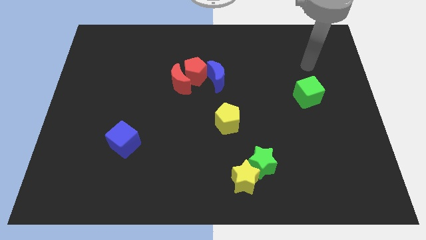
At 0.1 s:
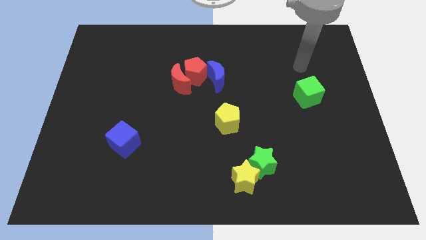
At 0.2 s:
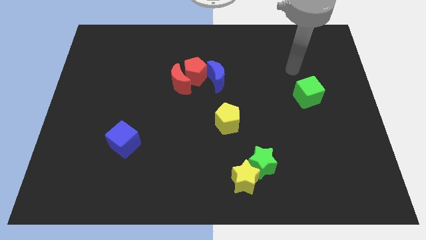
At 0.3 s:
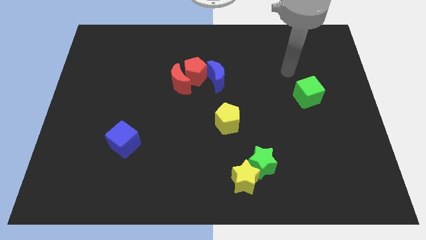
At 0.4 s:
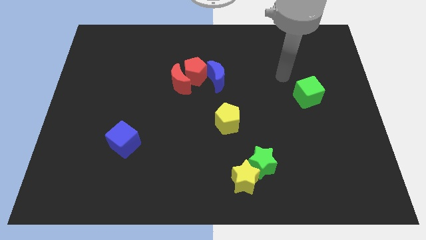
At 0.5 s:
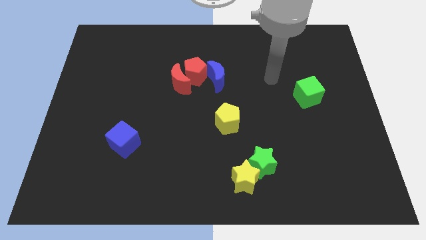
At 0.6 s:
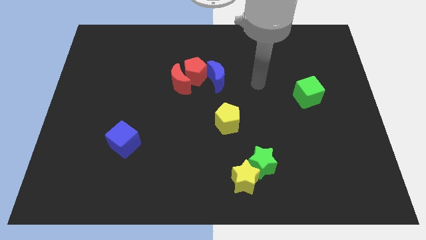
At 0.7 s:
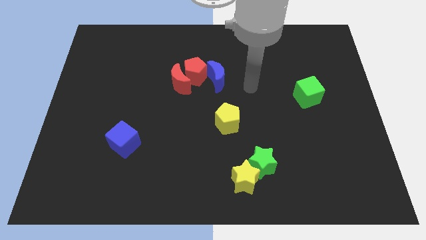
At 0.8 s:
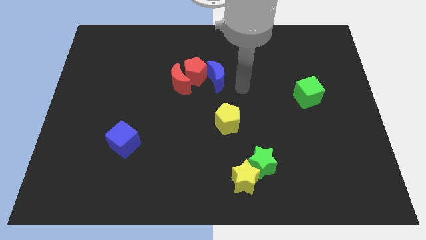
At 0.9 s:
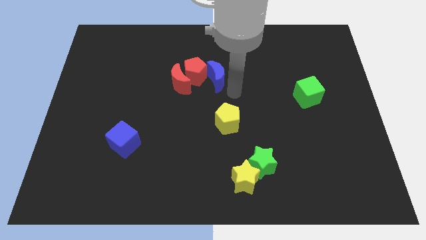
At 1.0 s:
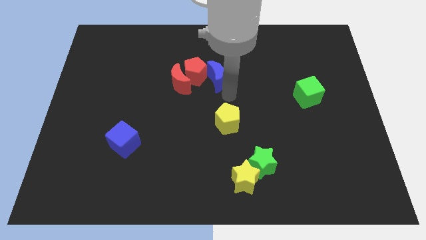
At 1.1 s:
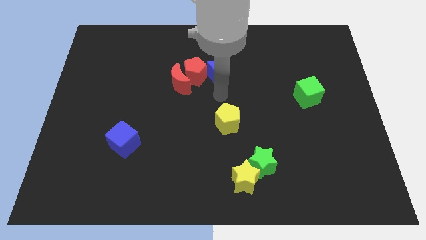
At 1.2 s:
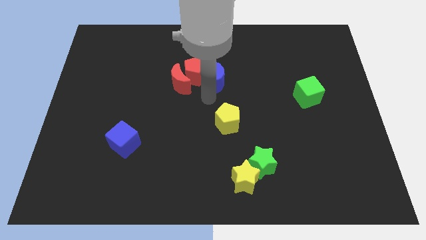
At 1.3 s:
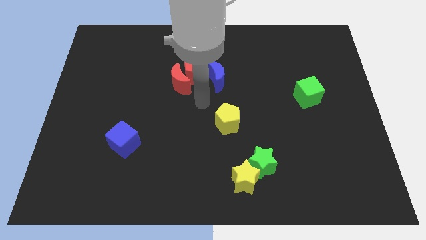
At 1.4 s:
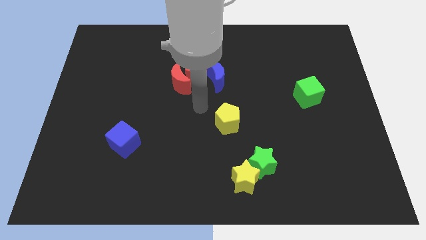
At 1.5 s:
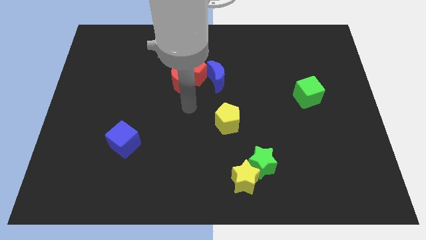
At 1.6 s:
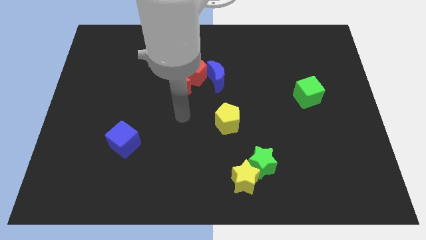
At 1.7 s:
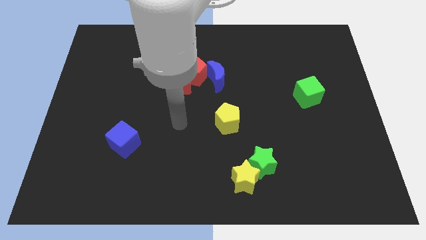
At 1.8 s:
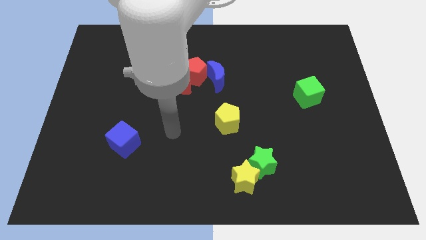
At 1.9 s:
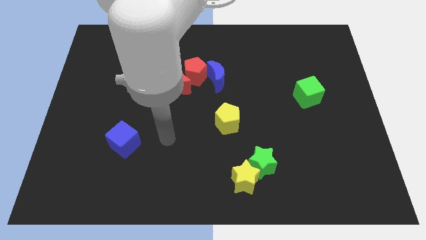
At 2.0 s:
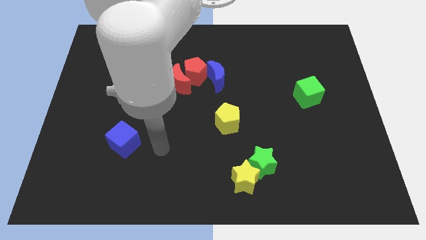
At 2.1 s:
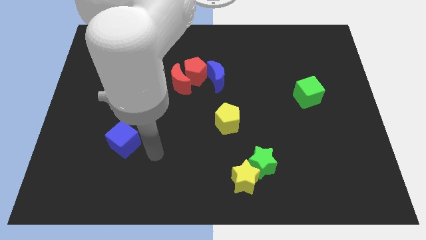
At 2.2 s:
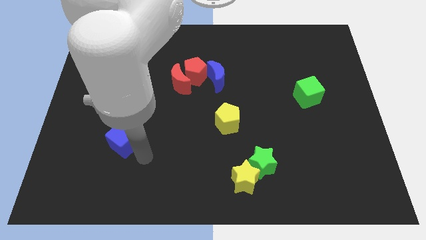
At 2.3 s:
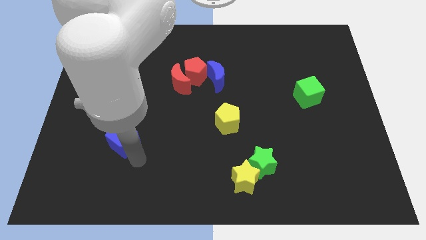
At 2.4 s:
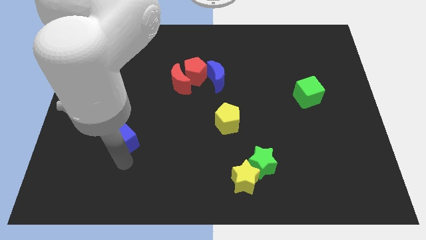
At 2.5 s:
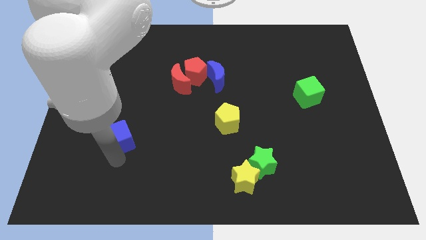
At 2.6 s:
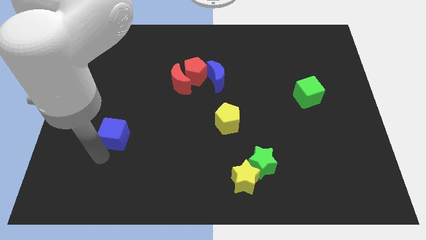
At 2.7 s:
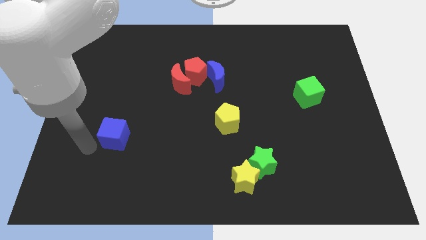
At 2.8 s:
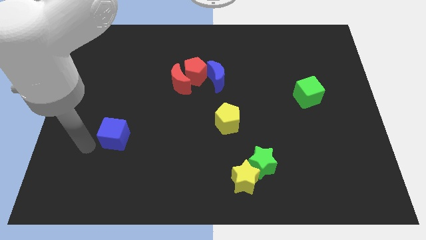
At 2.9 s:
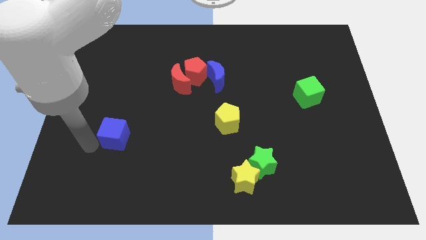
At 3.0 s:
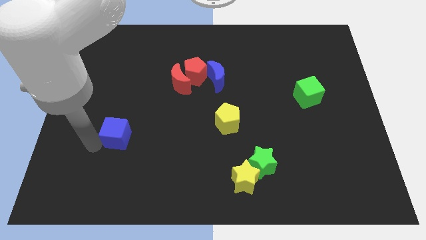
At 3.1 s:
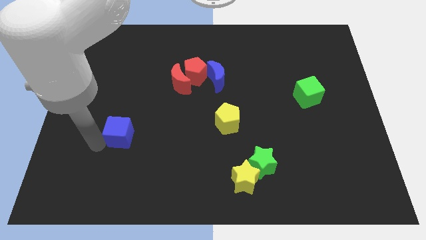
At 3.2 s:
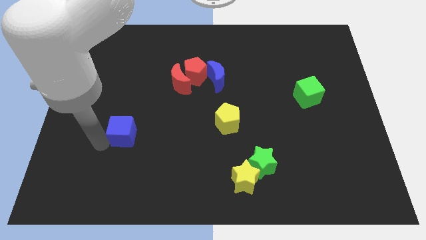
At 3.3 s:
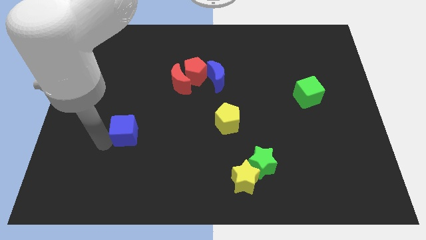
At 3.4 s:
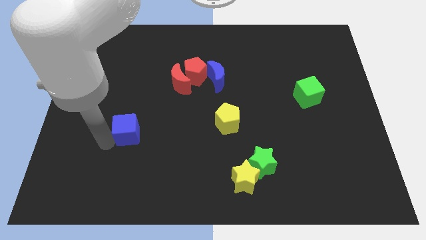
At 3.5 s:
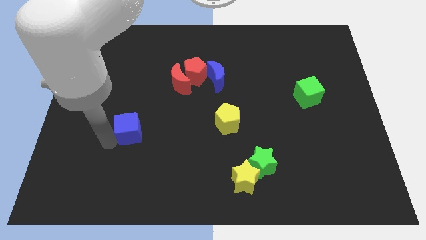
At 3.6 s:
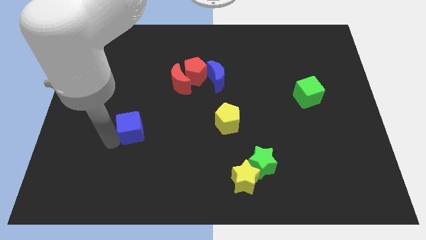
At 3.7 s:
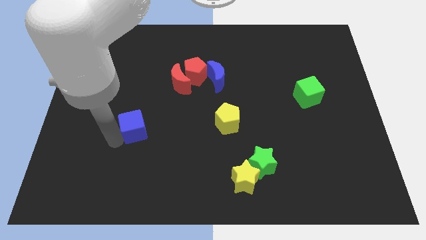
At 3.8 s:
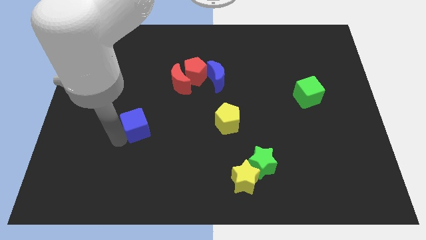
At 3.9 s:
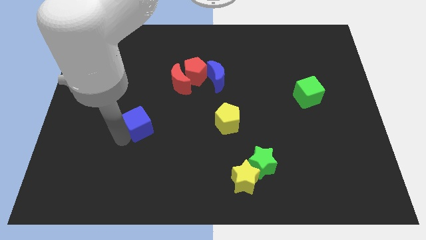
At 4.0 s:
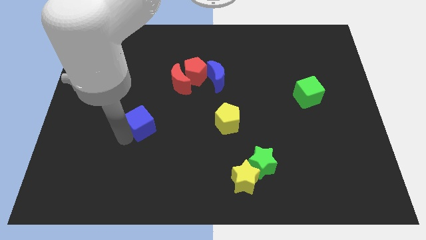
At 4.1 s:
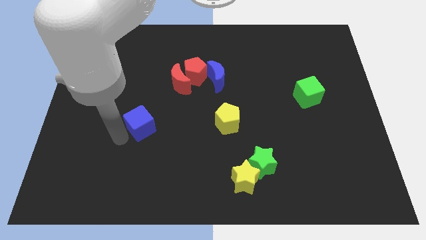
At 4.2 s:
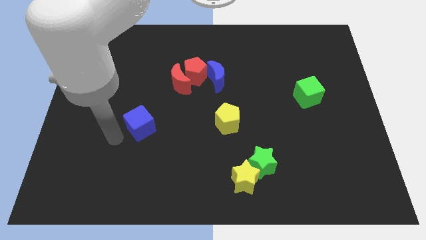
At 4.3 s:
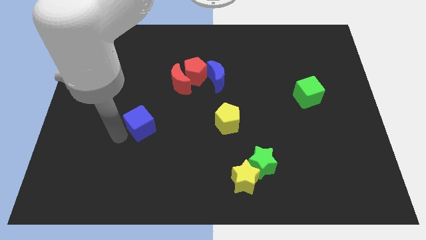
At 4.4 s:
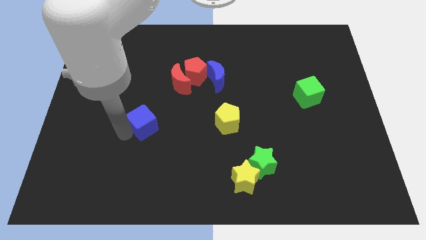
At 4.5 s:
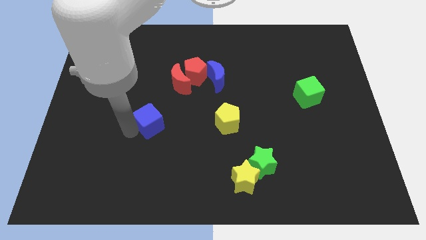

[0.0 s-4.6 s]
slide the blue cube up and to the right diagonally a little

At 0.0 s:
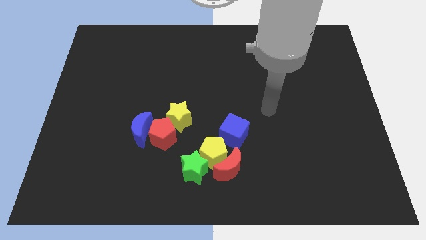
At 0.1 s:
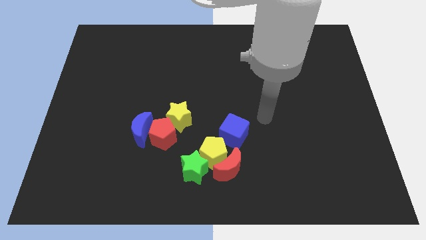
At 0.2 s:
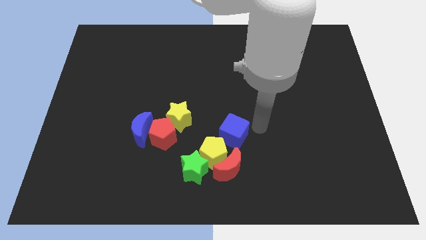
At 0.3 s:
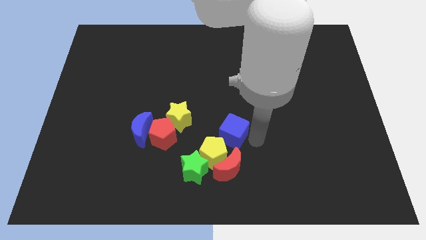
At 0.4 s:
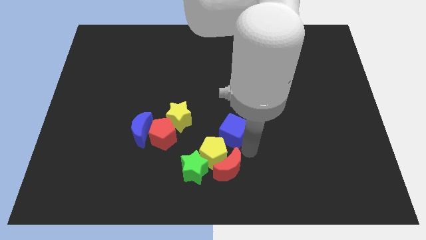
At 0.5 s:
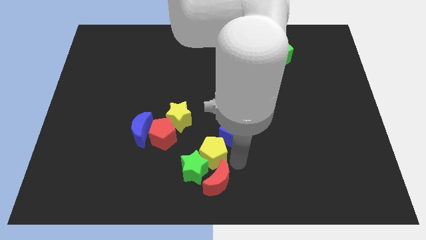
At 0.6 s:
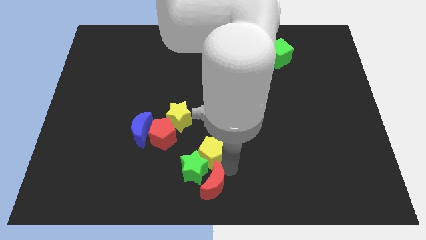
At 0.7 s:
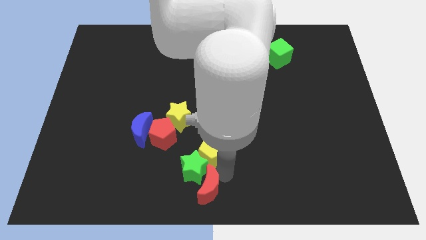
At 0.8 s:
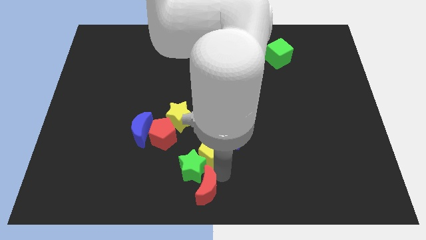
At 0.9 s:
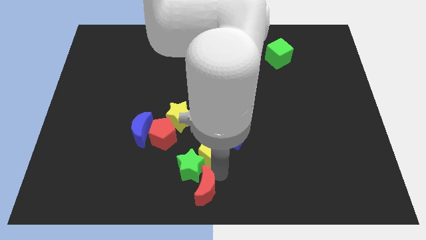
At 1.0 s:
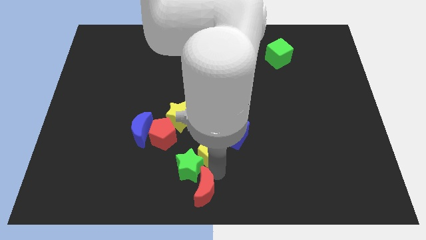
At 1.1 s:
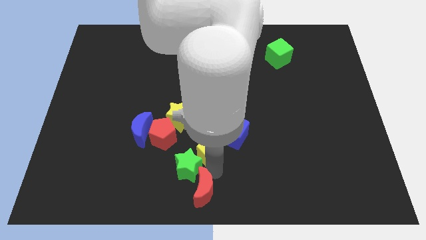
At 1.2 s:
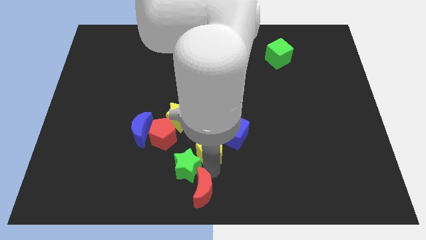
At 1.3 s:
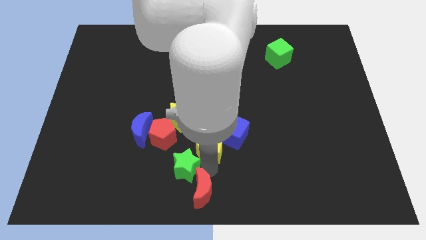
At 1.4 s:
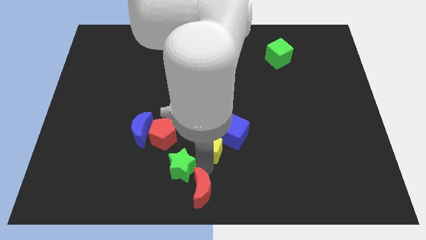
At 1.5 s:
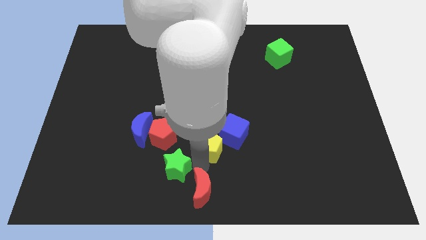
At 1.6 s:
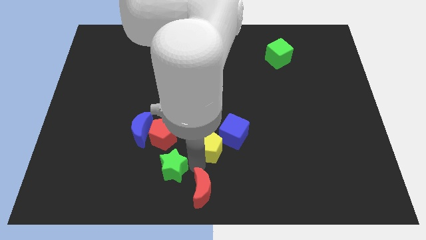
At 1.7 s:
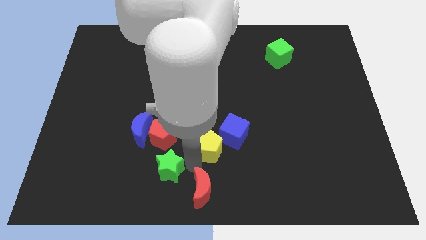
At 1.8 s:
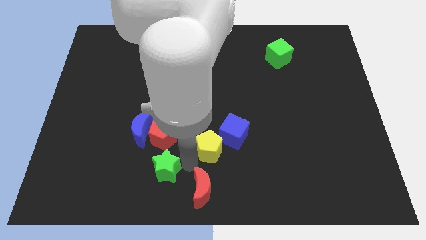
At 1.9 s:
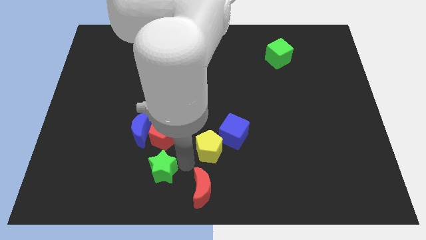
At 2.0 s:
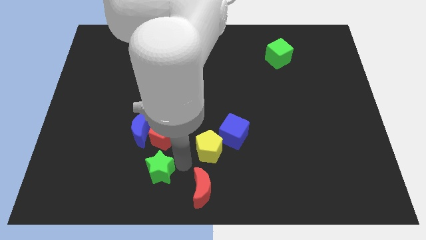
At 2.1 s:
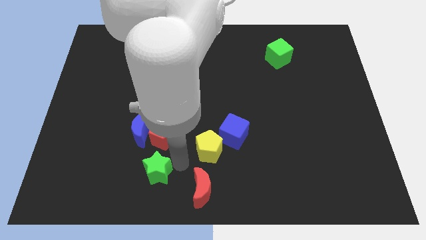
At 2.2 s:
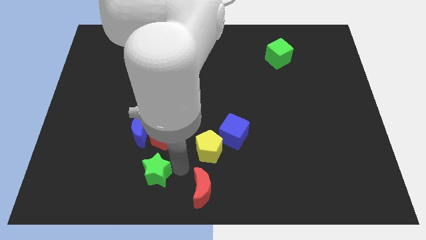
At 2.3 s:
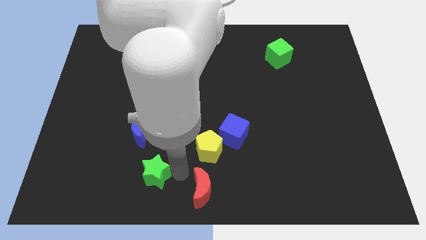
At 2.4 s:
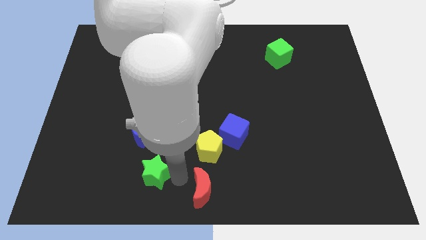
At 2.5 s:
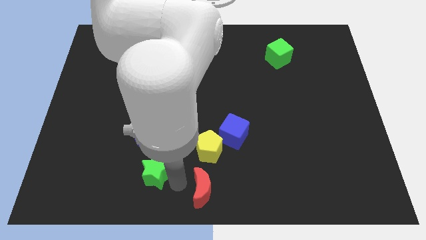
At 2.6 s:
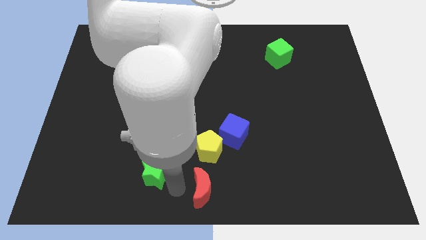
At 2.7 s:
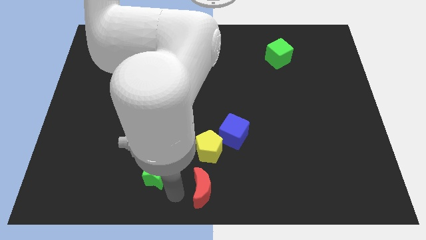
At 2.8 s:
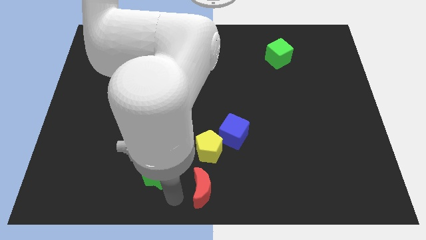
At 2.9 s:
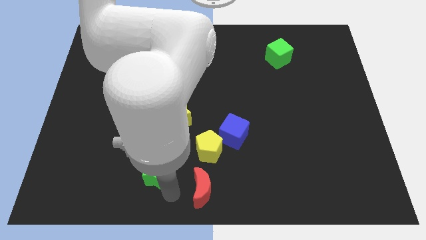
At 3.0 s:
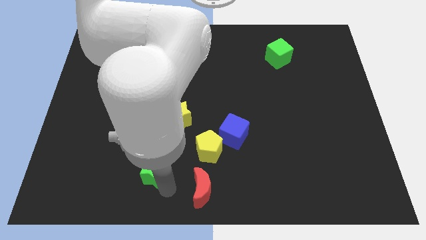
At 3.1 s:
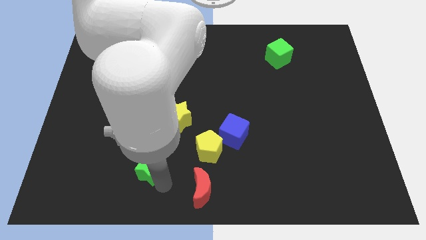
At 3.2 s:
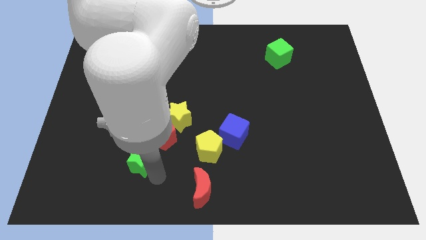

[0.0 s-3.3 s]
push the green star diagonally up and to the left slightly
